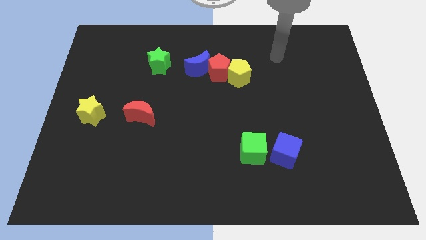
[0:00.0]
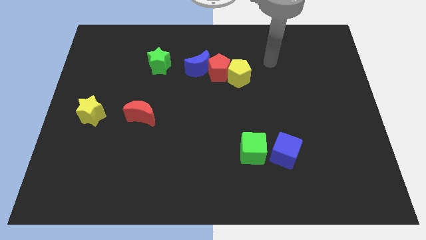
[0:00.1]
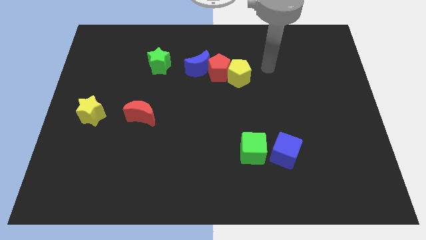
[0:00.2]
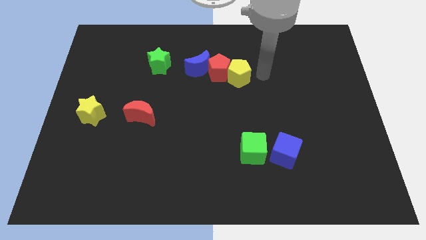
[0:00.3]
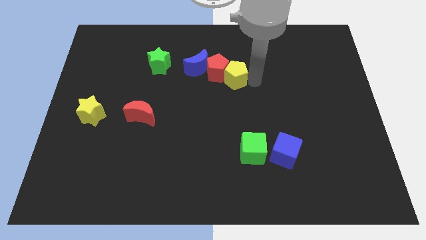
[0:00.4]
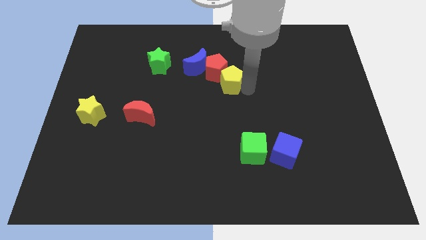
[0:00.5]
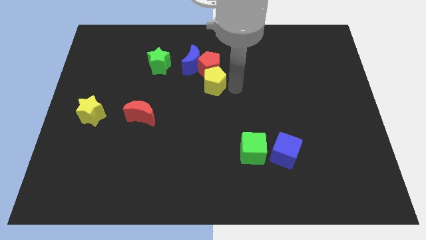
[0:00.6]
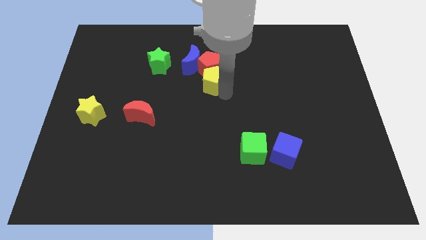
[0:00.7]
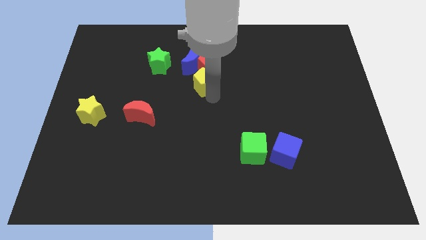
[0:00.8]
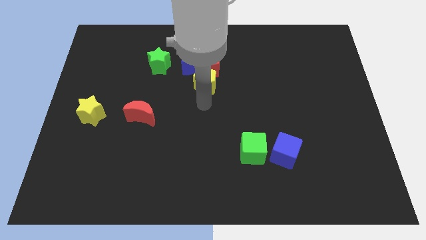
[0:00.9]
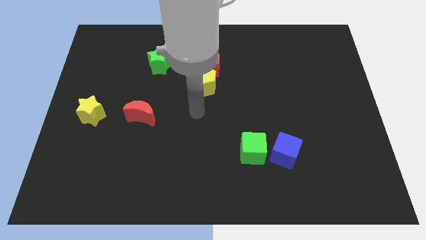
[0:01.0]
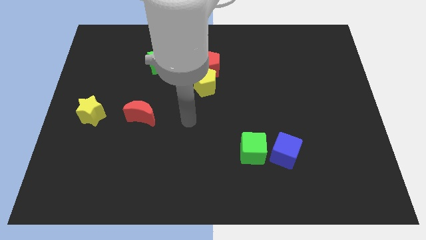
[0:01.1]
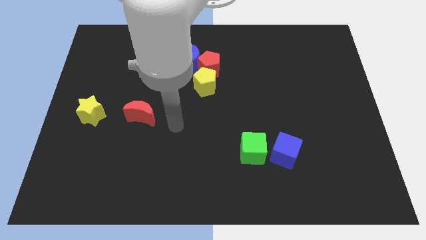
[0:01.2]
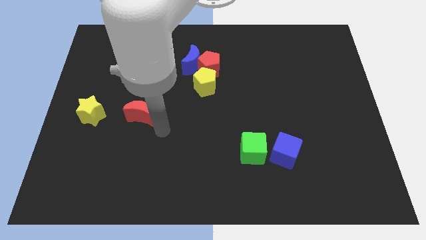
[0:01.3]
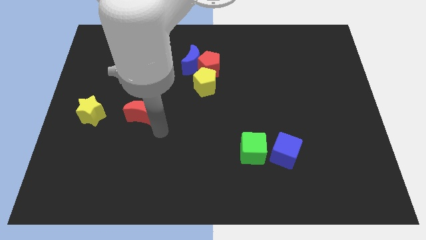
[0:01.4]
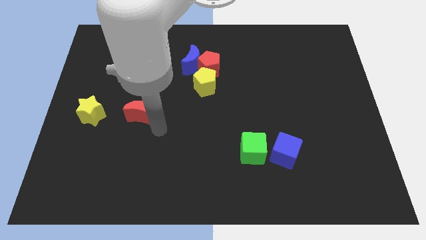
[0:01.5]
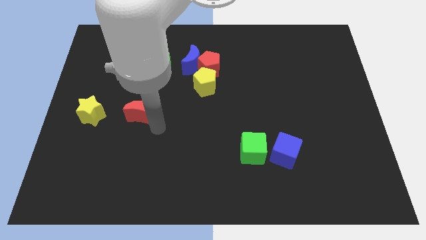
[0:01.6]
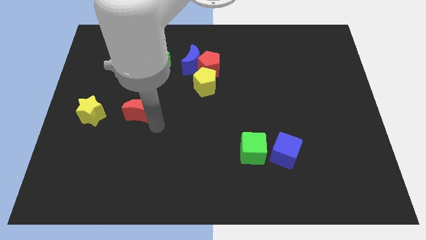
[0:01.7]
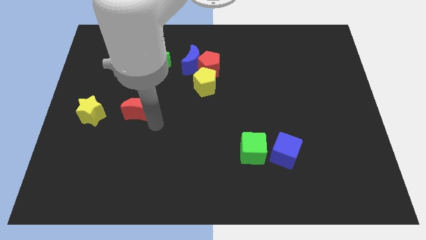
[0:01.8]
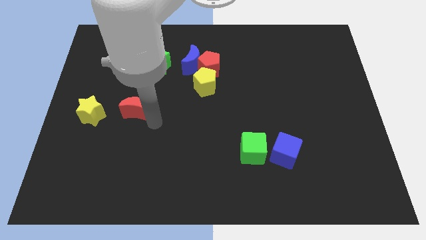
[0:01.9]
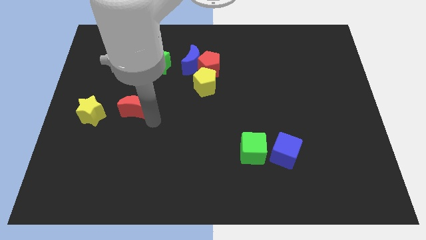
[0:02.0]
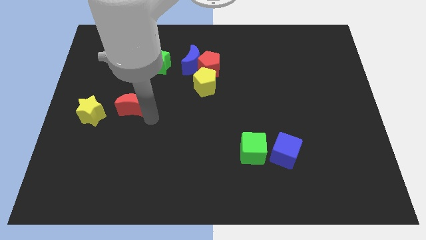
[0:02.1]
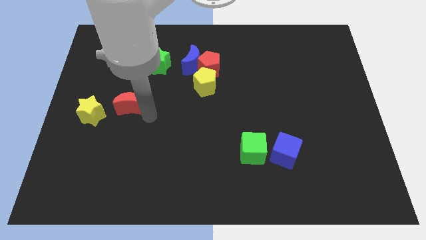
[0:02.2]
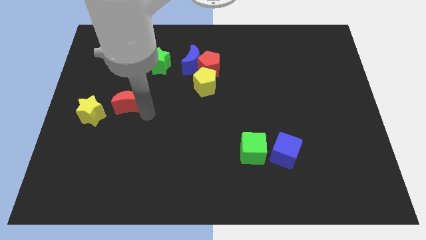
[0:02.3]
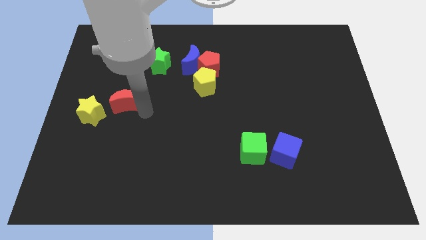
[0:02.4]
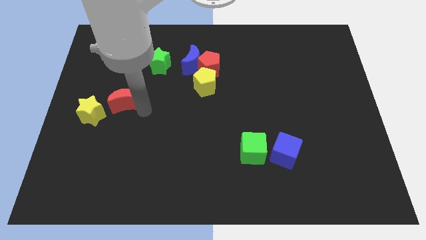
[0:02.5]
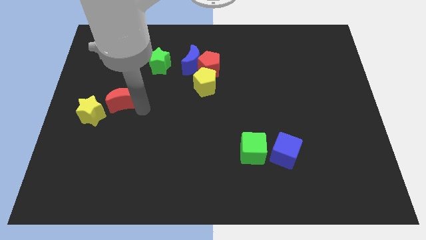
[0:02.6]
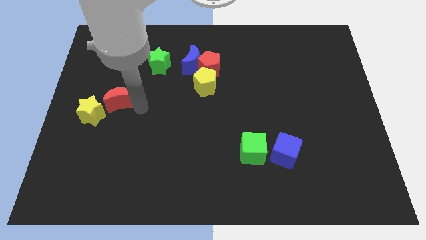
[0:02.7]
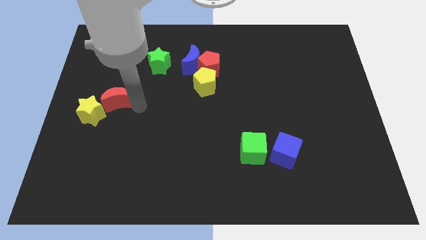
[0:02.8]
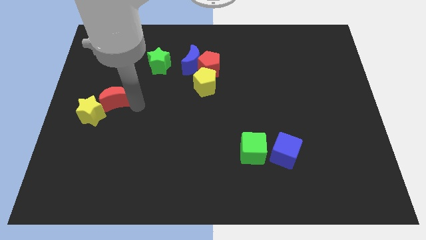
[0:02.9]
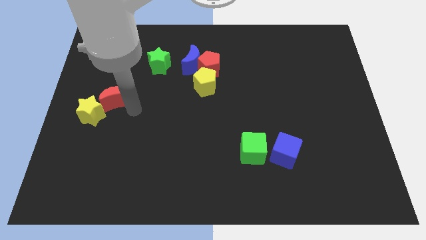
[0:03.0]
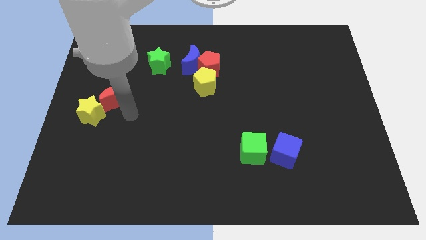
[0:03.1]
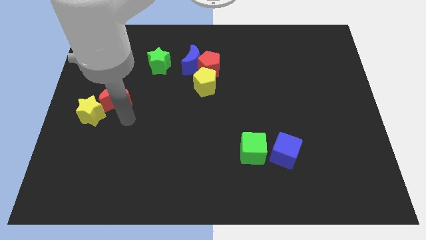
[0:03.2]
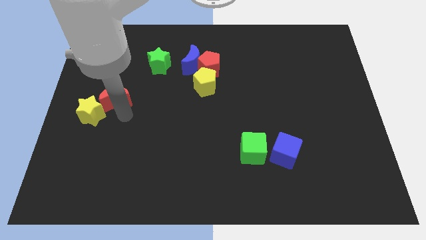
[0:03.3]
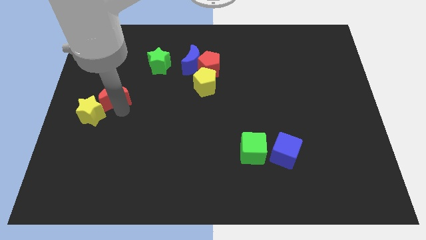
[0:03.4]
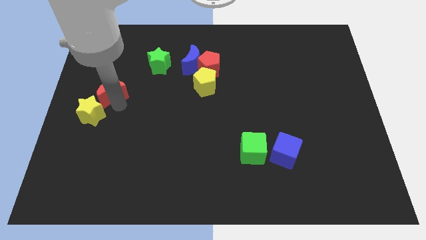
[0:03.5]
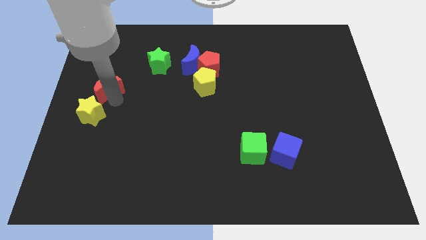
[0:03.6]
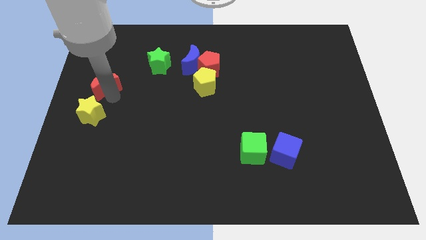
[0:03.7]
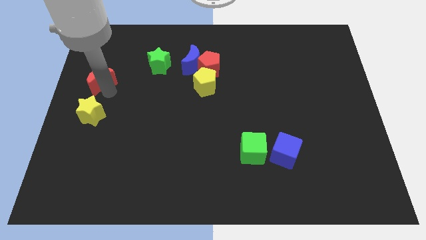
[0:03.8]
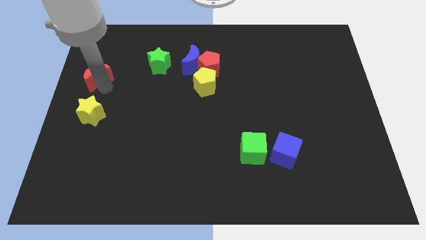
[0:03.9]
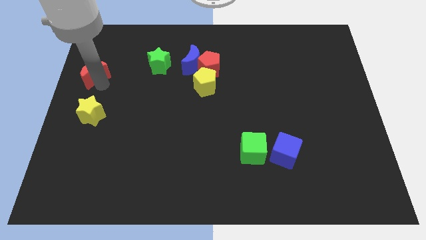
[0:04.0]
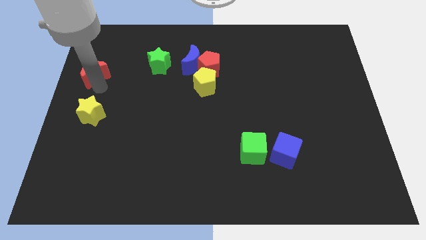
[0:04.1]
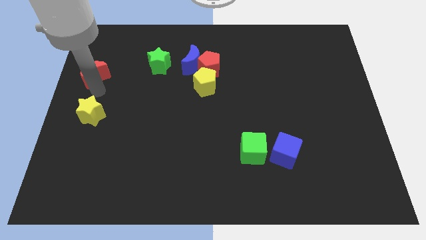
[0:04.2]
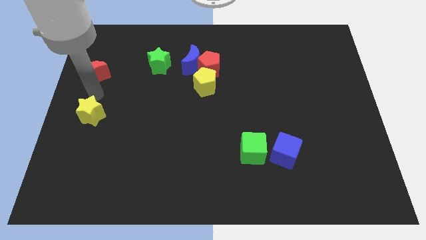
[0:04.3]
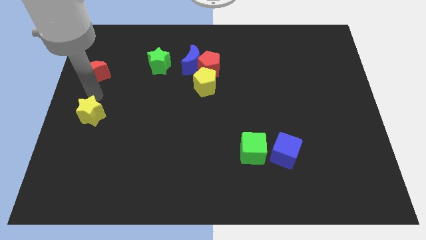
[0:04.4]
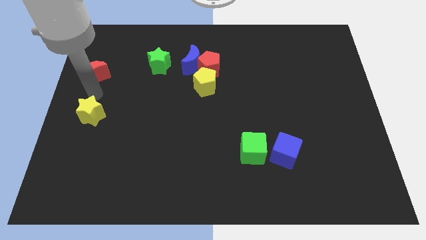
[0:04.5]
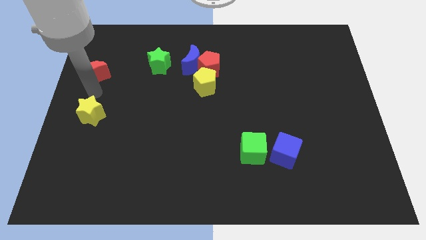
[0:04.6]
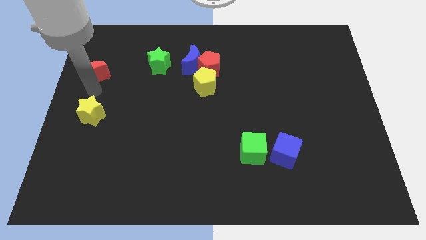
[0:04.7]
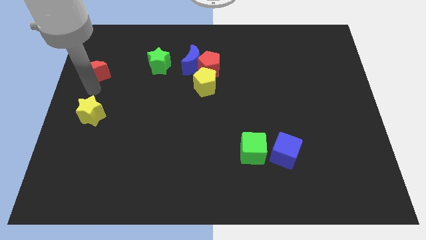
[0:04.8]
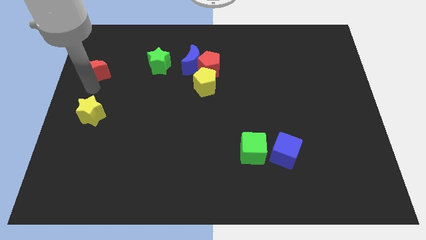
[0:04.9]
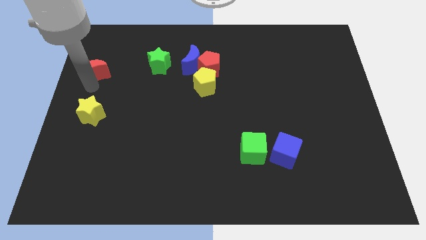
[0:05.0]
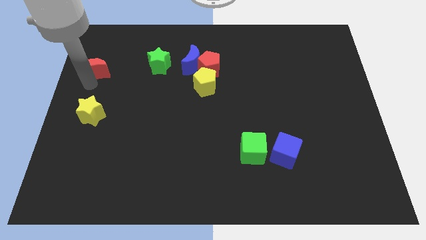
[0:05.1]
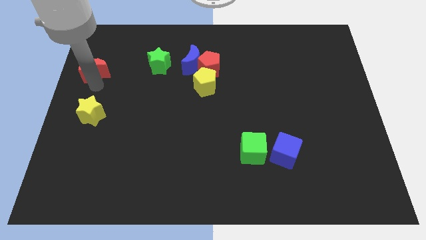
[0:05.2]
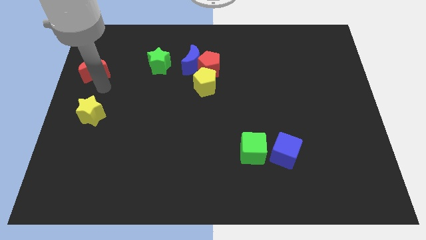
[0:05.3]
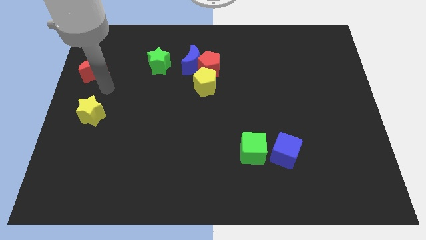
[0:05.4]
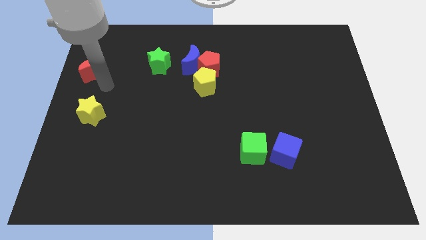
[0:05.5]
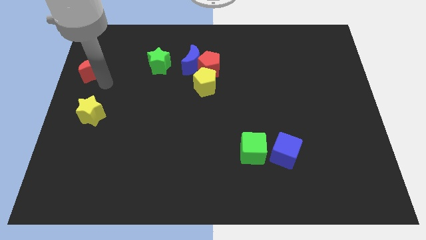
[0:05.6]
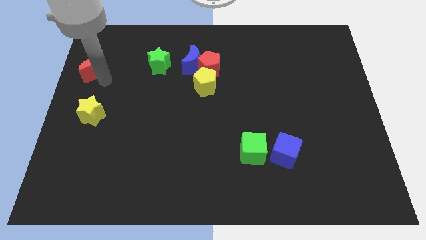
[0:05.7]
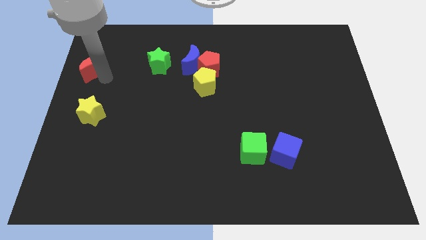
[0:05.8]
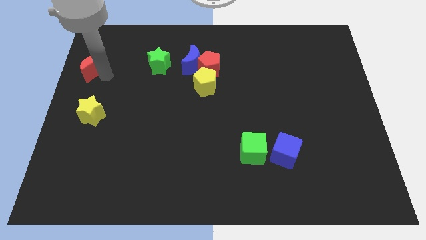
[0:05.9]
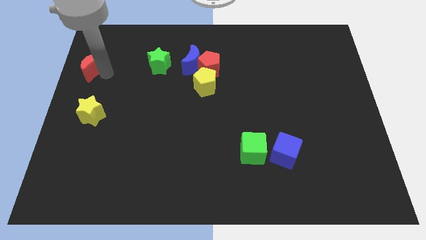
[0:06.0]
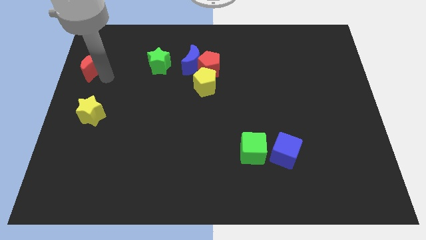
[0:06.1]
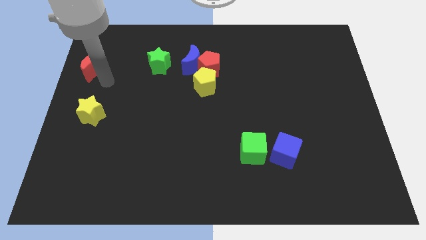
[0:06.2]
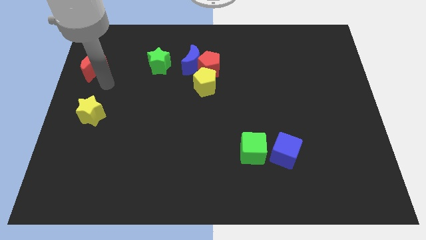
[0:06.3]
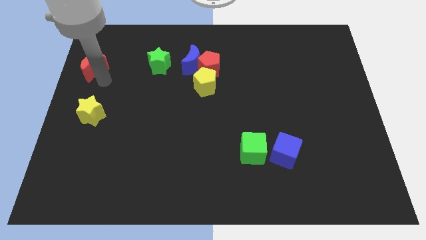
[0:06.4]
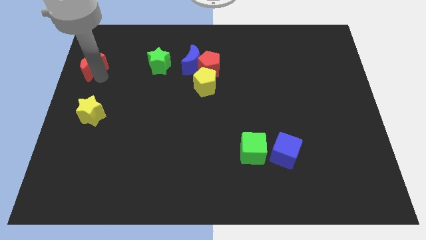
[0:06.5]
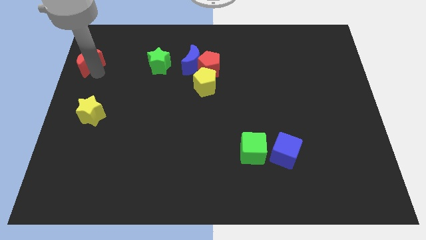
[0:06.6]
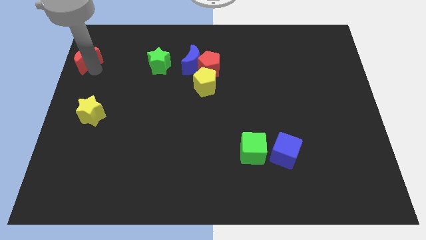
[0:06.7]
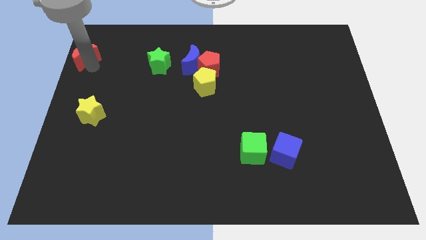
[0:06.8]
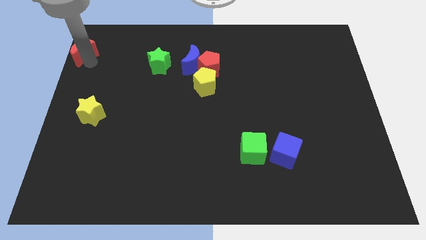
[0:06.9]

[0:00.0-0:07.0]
push the red moon to the top left of the board
